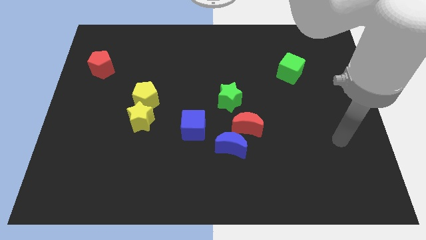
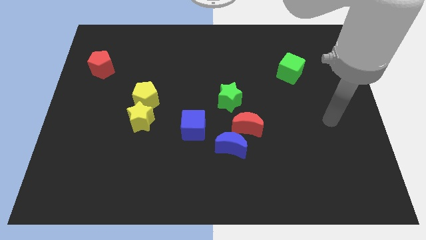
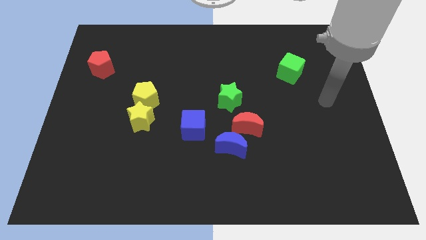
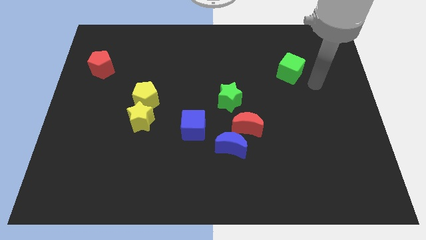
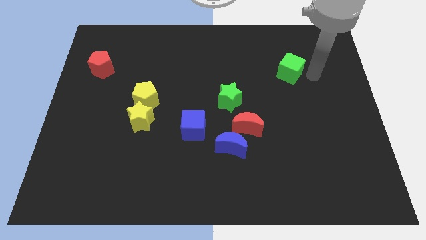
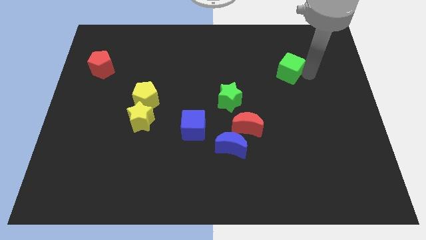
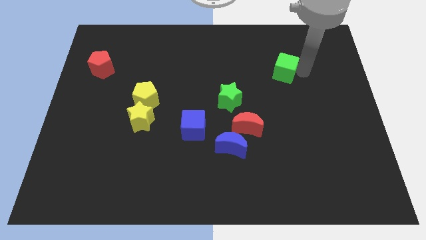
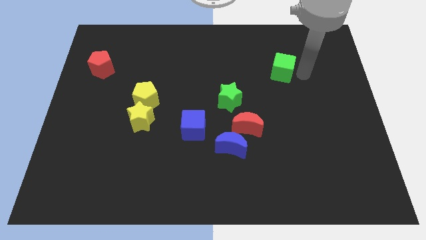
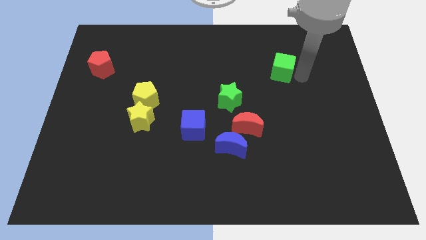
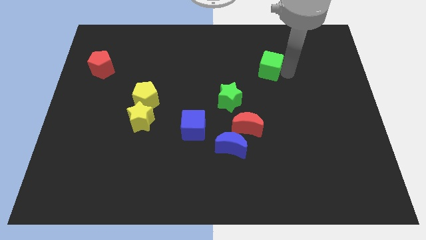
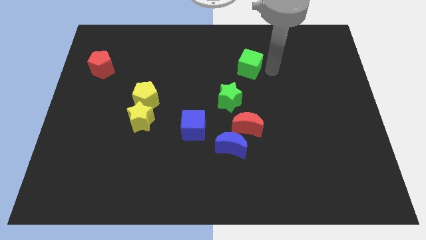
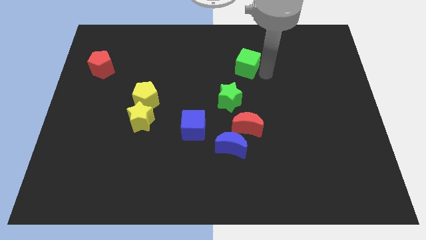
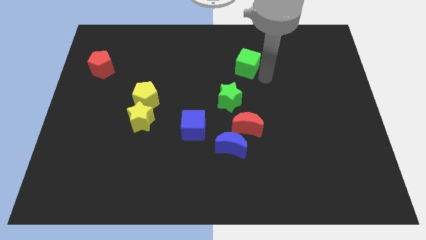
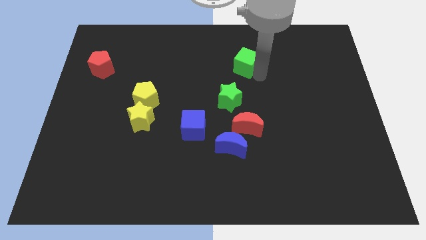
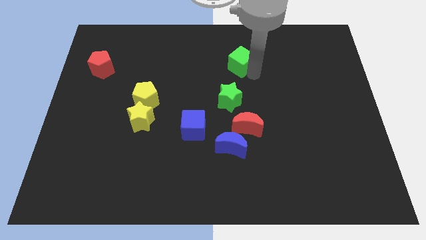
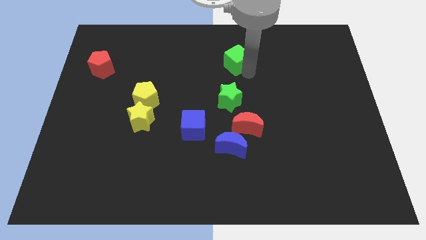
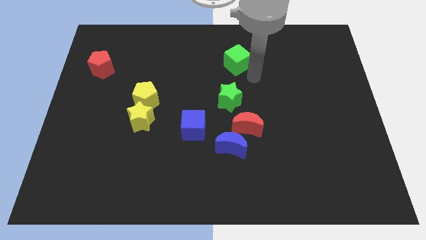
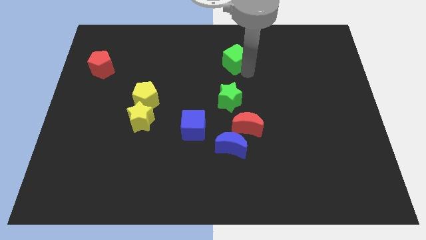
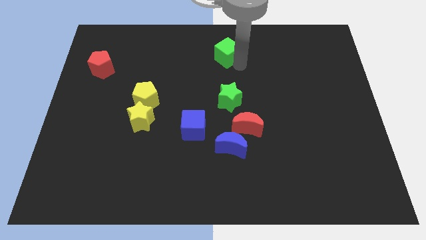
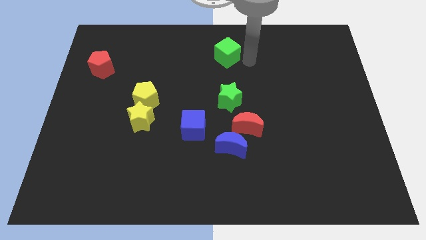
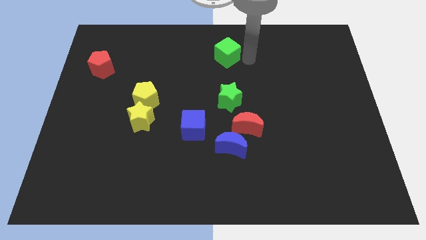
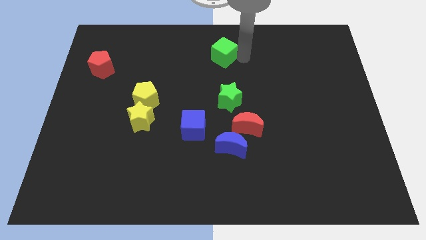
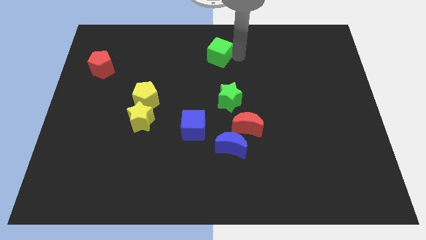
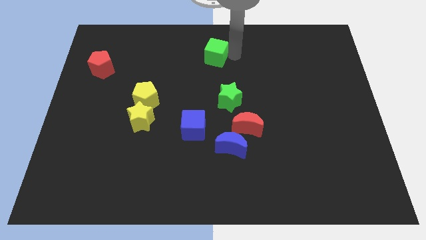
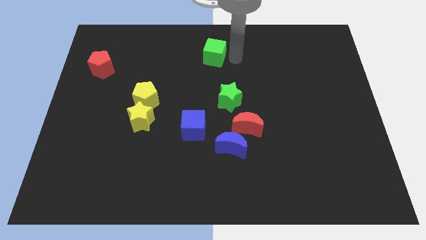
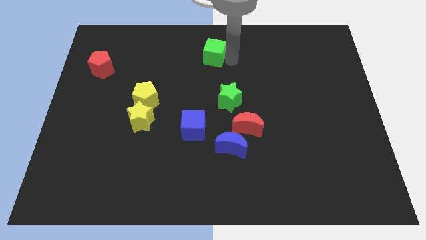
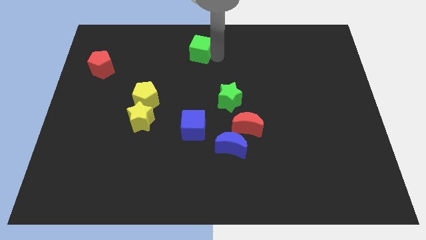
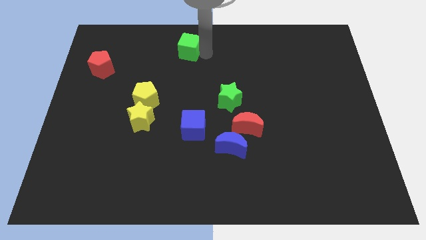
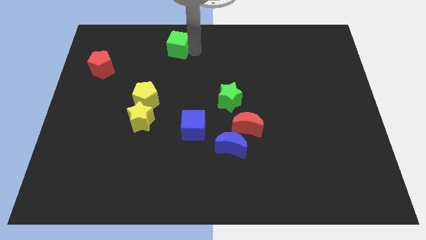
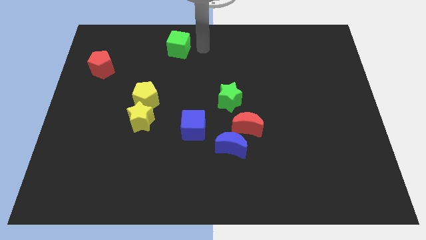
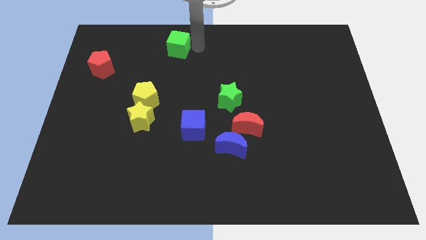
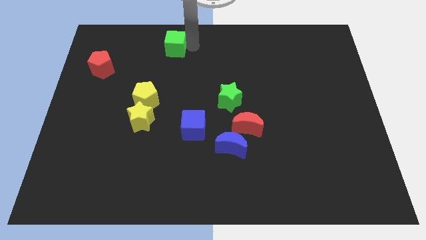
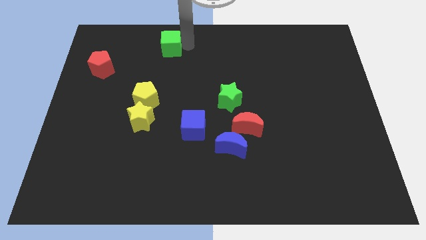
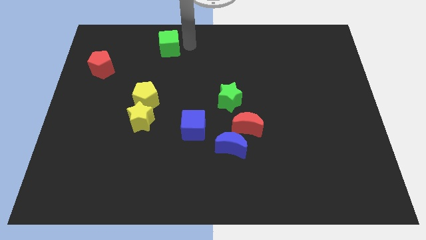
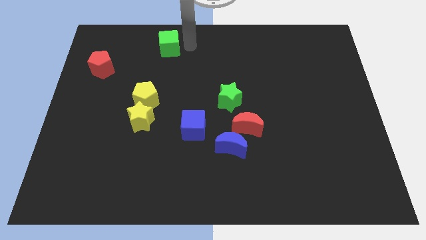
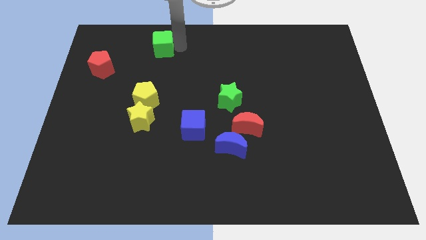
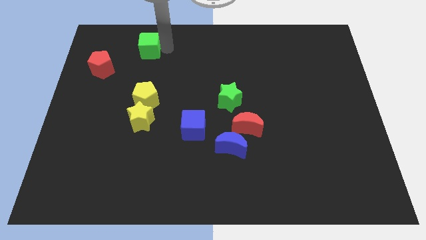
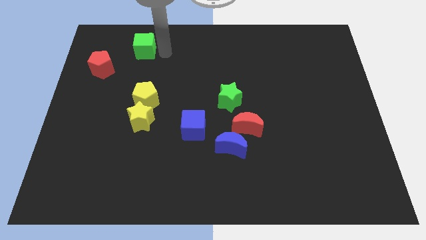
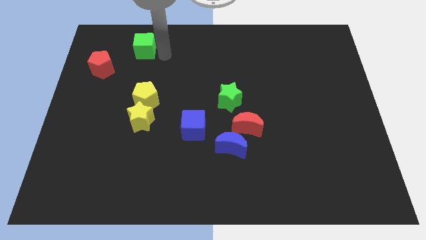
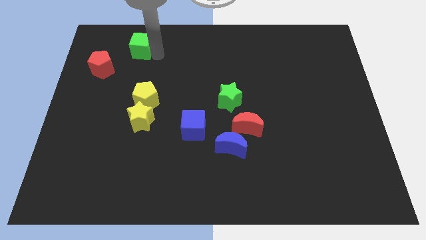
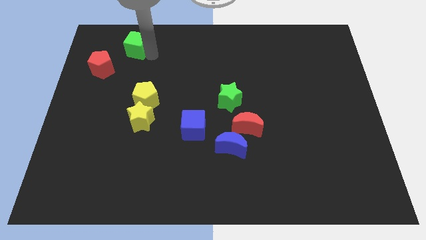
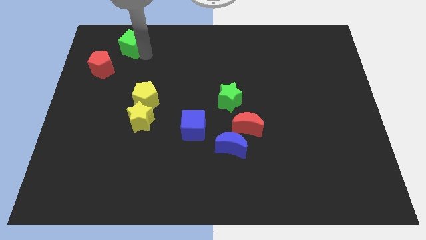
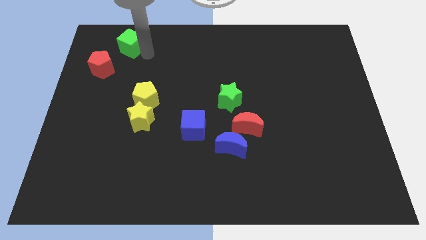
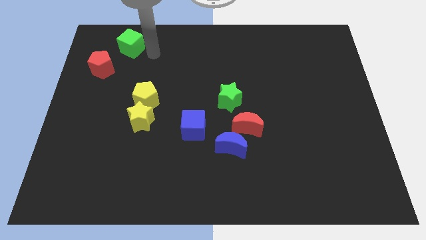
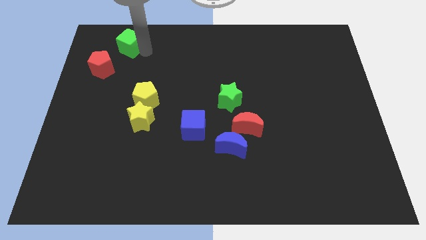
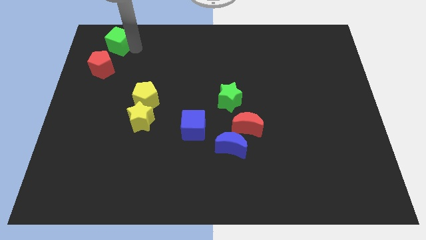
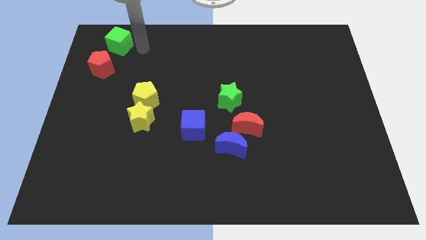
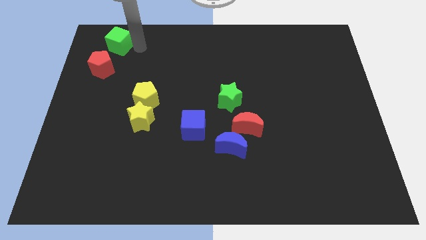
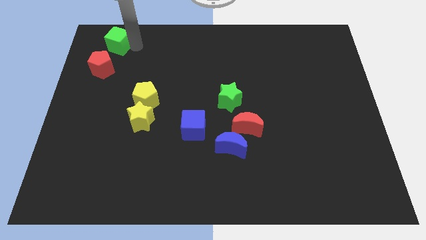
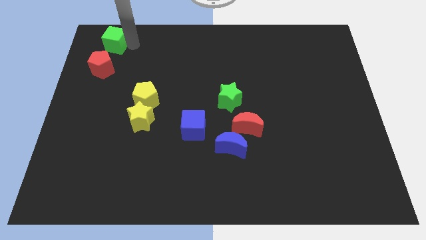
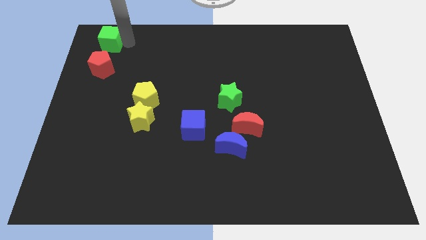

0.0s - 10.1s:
push the green cube to the top left corner
